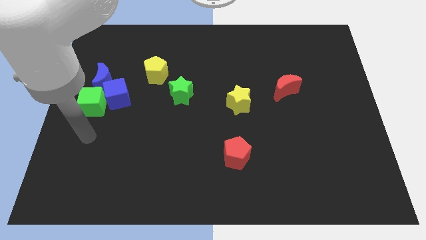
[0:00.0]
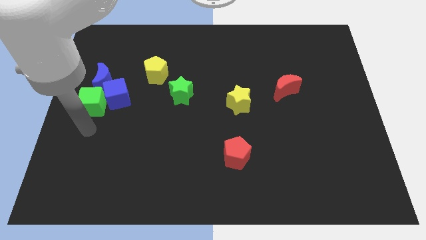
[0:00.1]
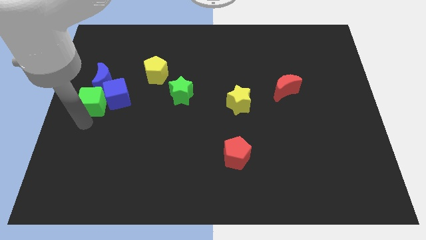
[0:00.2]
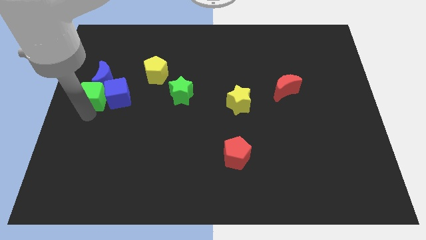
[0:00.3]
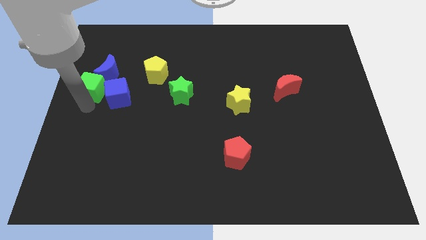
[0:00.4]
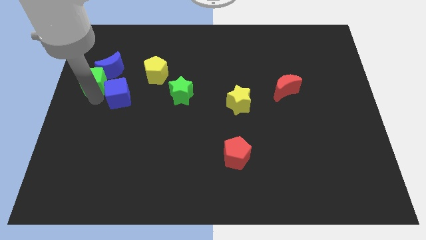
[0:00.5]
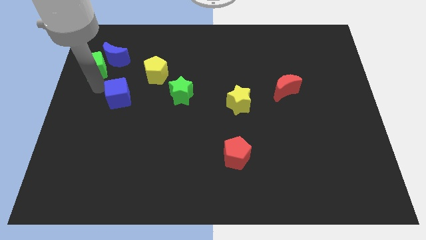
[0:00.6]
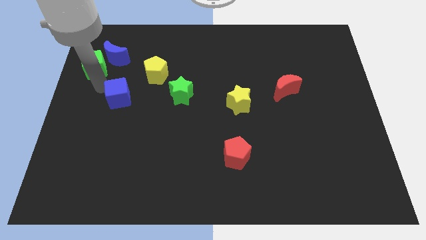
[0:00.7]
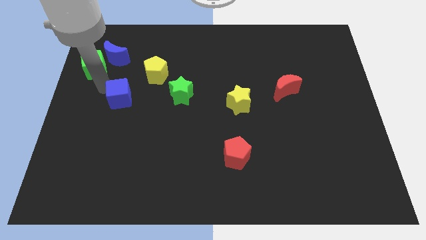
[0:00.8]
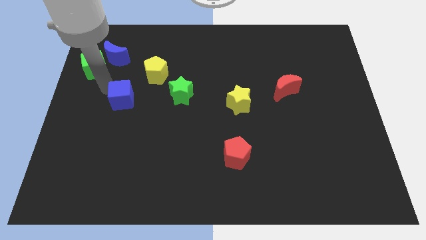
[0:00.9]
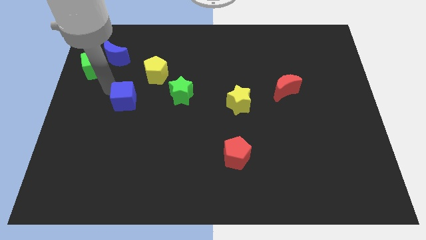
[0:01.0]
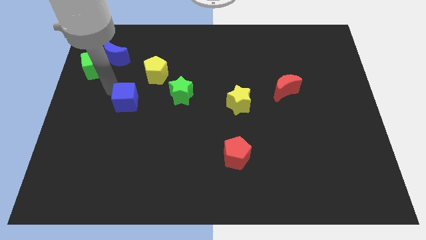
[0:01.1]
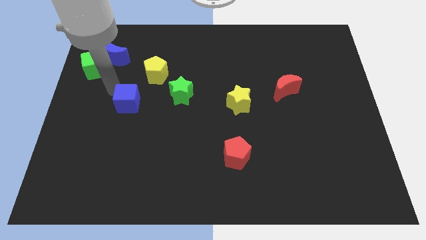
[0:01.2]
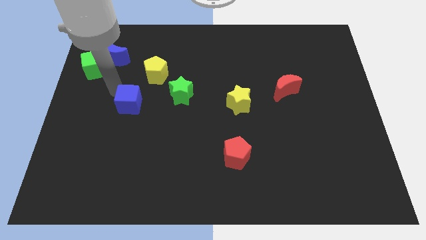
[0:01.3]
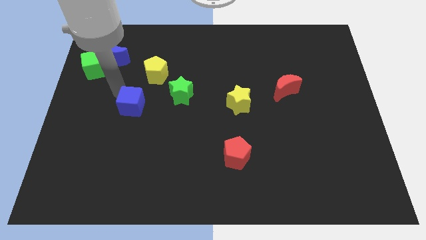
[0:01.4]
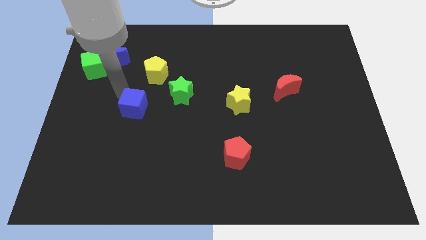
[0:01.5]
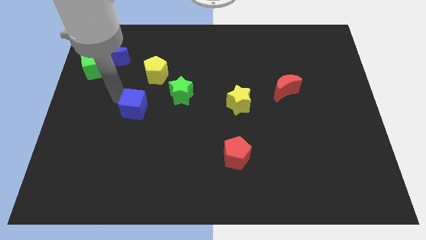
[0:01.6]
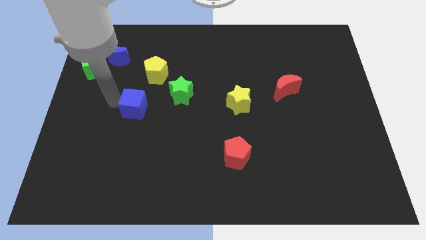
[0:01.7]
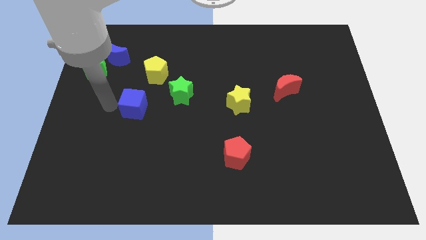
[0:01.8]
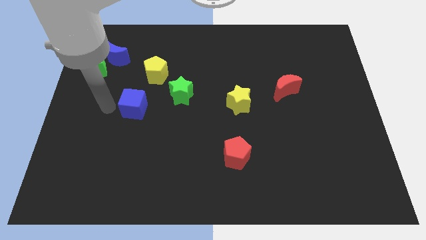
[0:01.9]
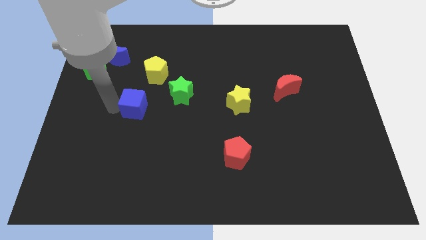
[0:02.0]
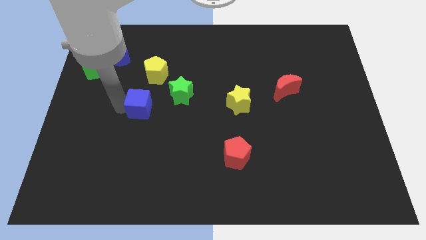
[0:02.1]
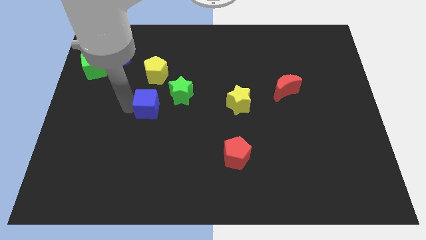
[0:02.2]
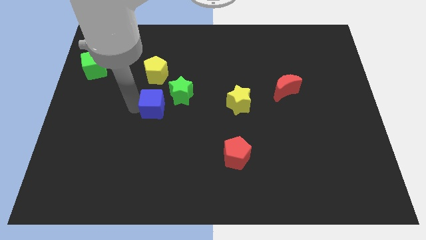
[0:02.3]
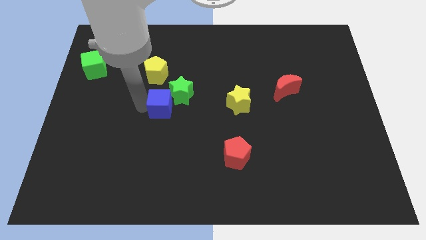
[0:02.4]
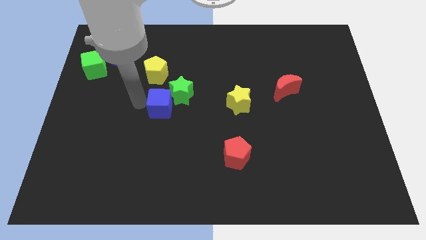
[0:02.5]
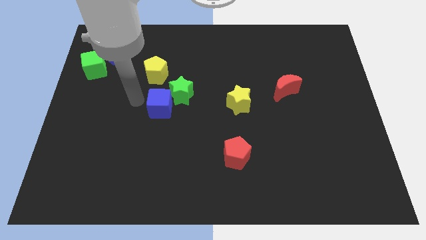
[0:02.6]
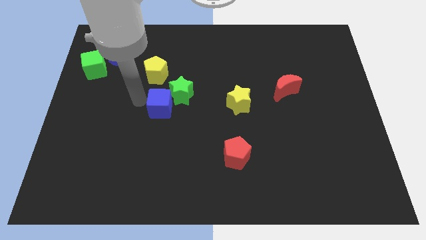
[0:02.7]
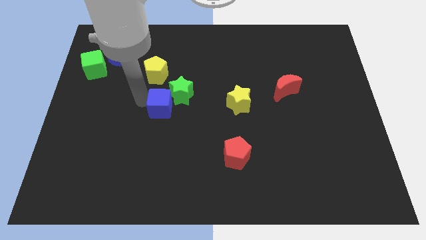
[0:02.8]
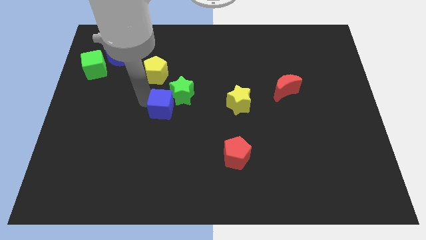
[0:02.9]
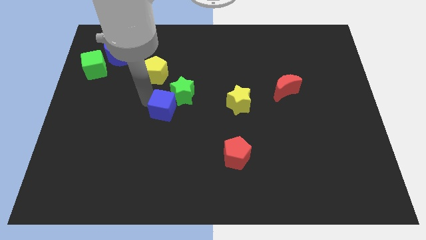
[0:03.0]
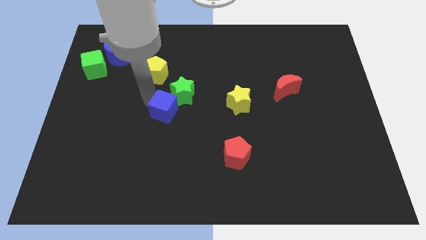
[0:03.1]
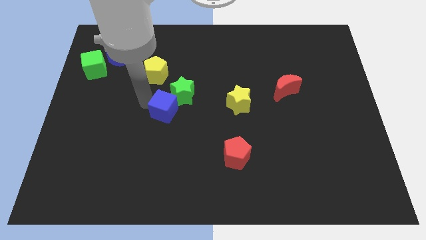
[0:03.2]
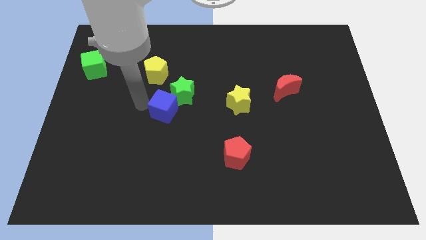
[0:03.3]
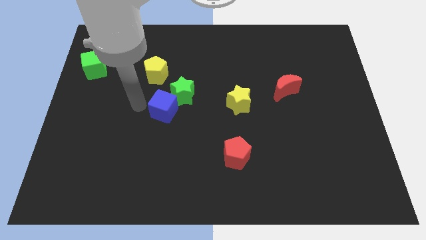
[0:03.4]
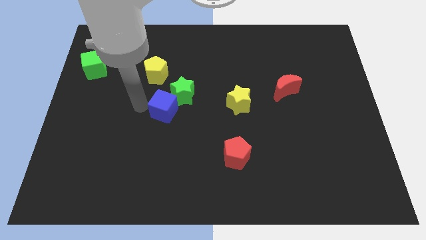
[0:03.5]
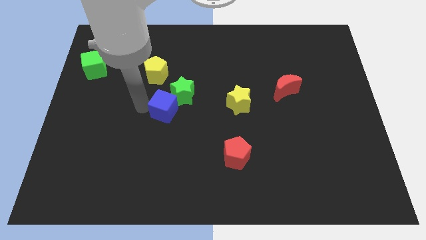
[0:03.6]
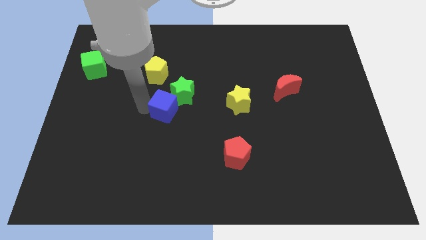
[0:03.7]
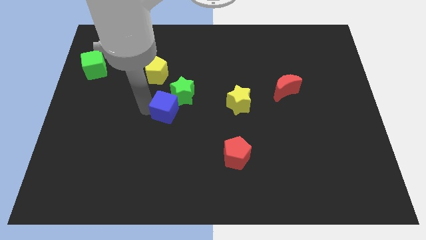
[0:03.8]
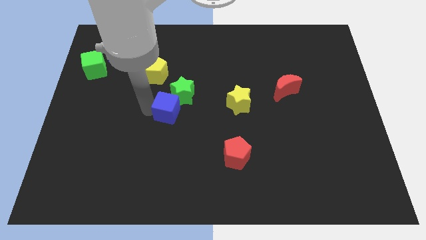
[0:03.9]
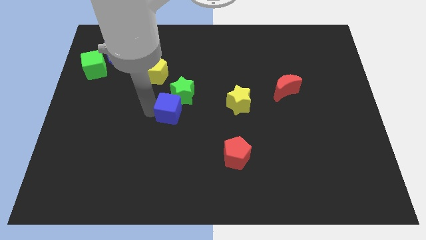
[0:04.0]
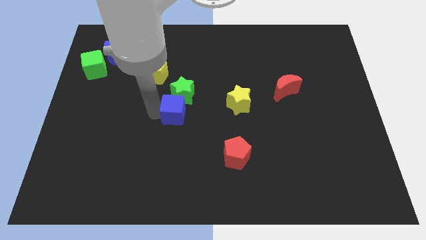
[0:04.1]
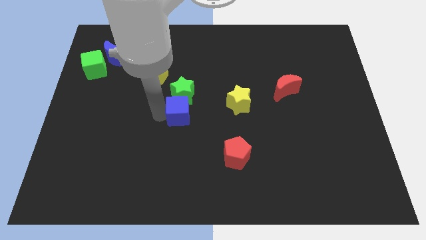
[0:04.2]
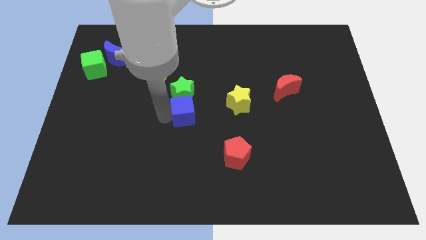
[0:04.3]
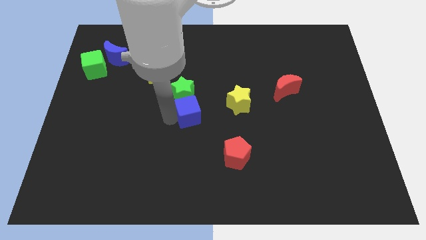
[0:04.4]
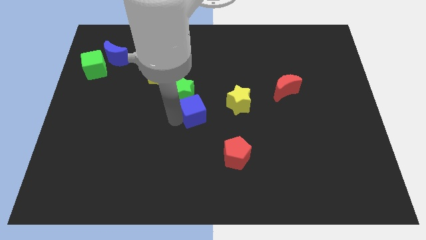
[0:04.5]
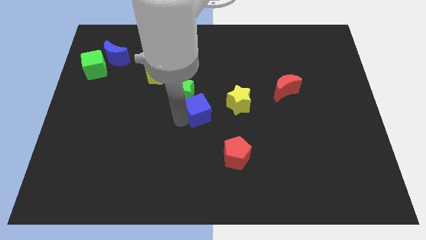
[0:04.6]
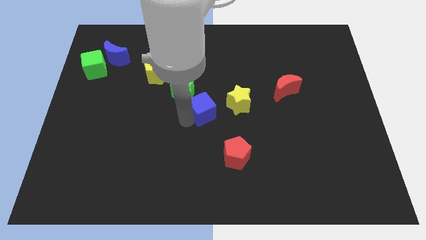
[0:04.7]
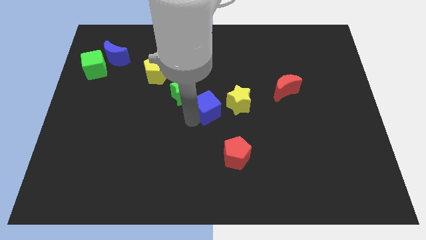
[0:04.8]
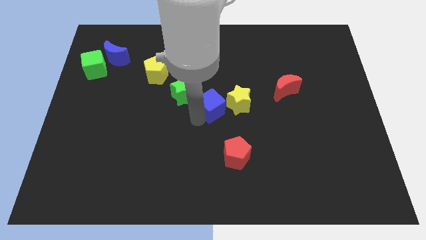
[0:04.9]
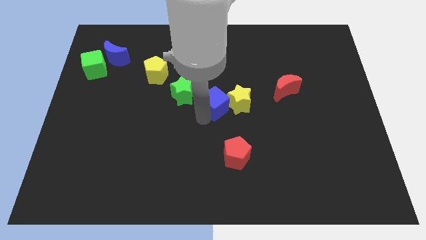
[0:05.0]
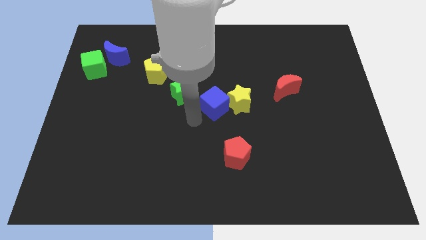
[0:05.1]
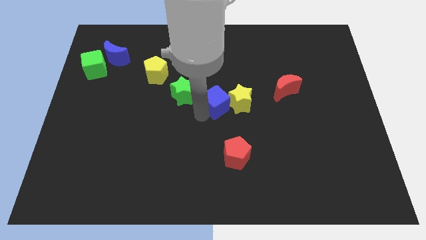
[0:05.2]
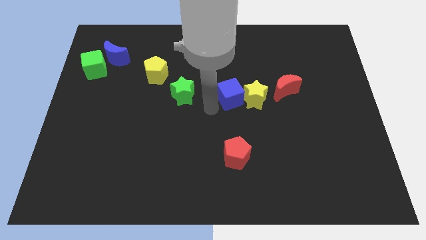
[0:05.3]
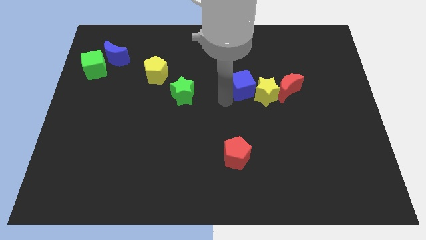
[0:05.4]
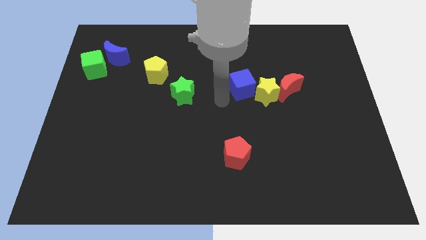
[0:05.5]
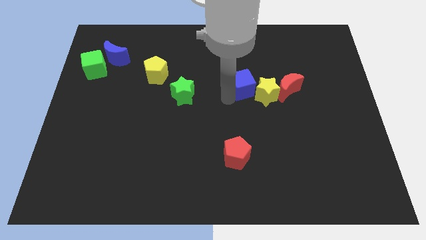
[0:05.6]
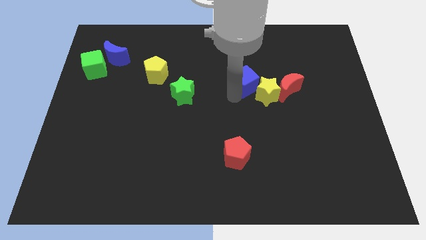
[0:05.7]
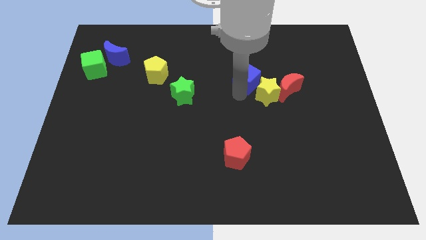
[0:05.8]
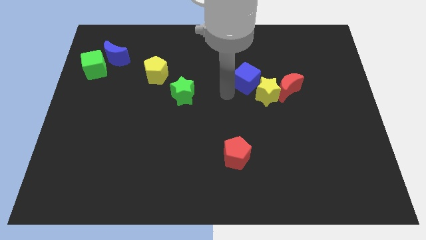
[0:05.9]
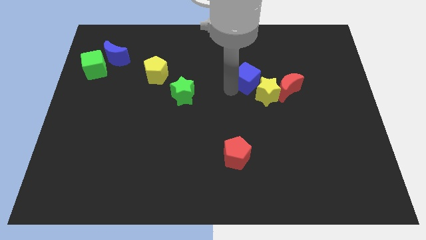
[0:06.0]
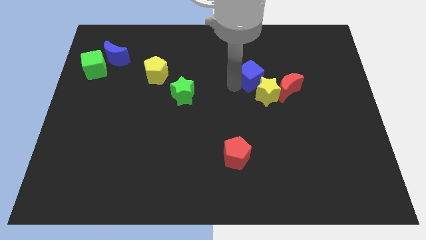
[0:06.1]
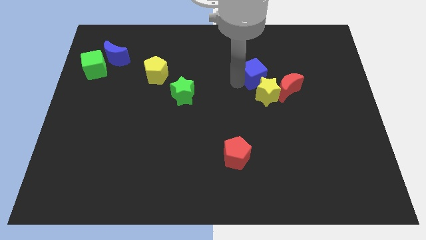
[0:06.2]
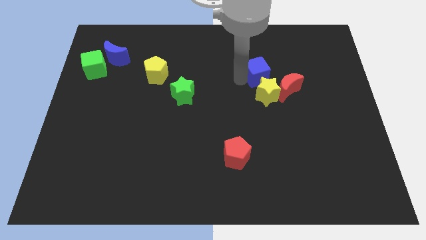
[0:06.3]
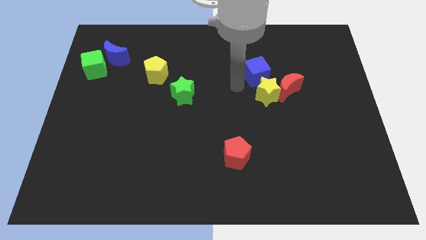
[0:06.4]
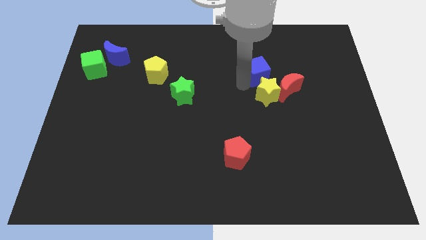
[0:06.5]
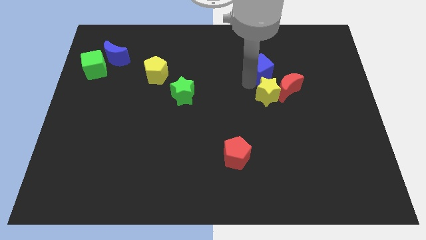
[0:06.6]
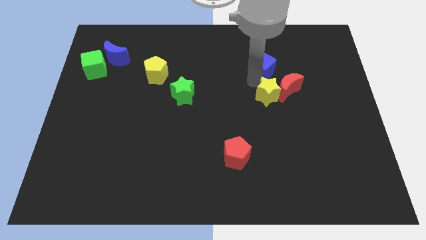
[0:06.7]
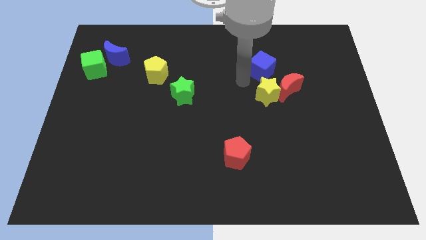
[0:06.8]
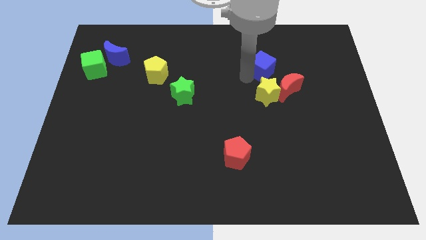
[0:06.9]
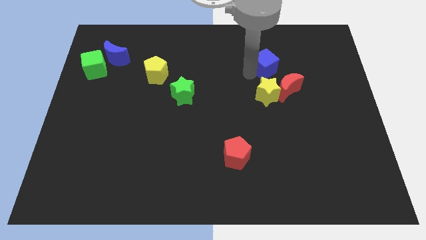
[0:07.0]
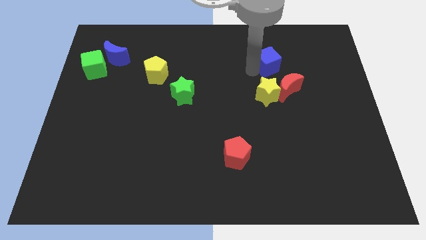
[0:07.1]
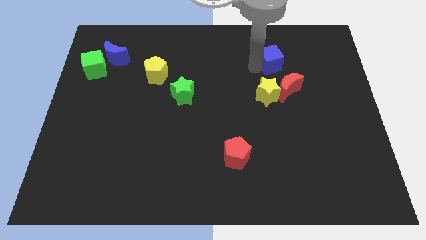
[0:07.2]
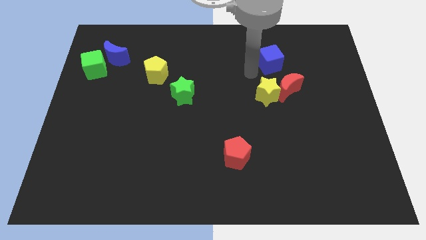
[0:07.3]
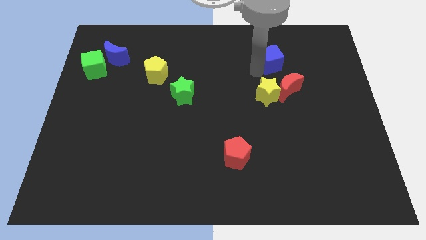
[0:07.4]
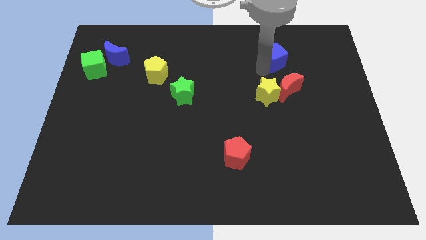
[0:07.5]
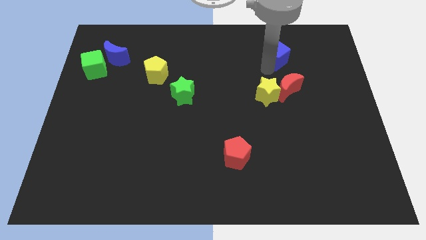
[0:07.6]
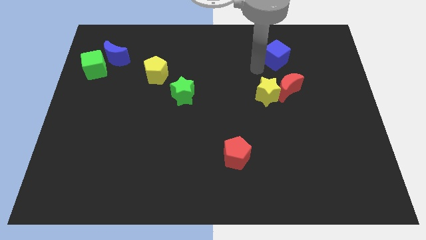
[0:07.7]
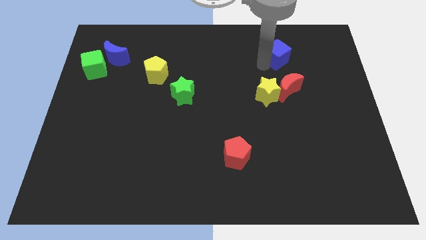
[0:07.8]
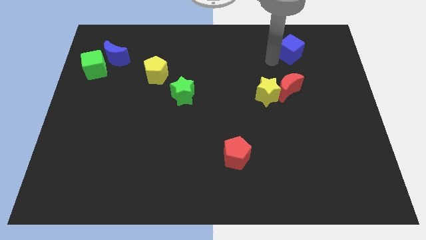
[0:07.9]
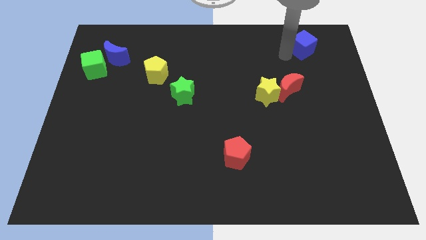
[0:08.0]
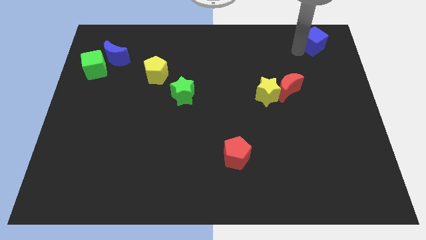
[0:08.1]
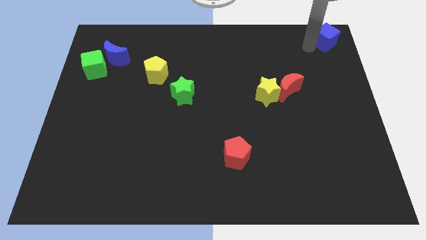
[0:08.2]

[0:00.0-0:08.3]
move the blue cube to the top right corner
